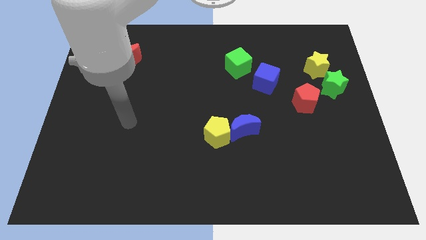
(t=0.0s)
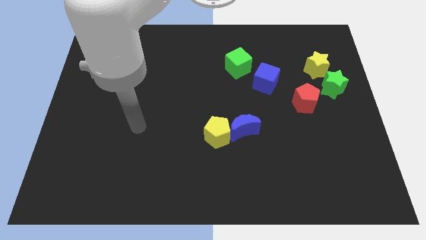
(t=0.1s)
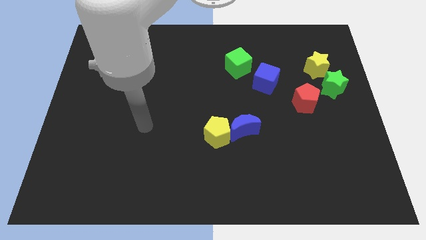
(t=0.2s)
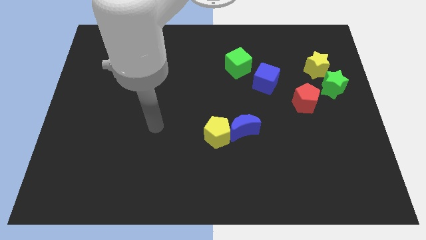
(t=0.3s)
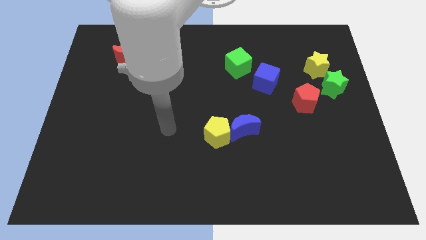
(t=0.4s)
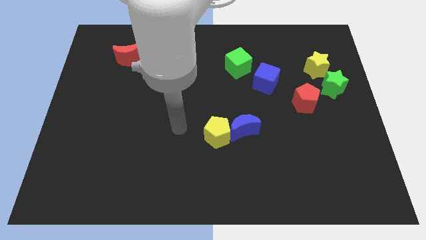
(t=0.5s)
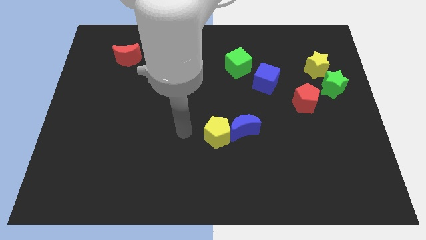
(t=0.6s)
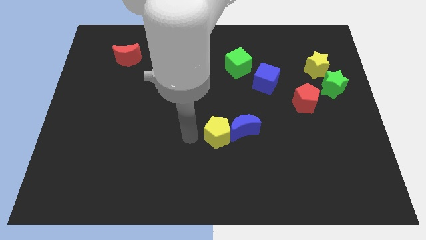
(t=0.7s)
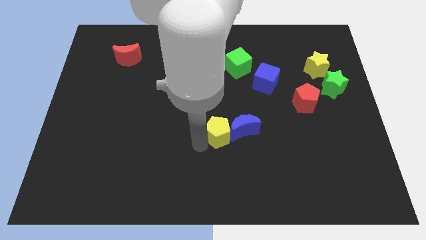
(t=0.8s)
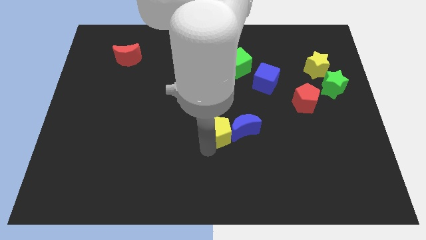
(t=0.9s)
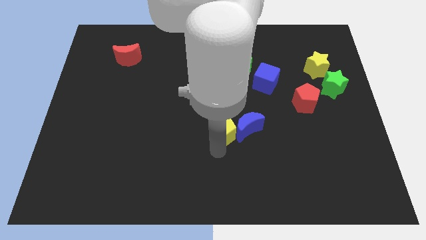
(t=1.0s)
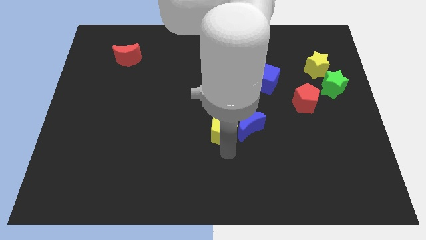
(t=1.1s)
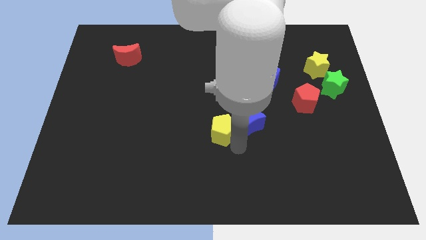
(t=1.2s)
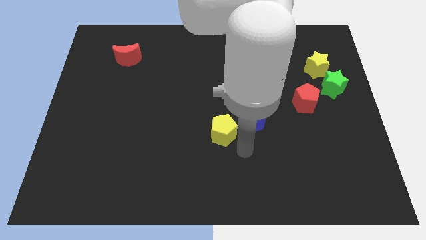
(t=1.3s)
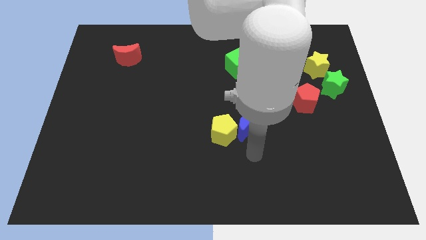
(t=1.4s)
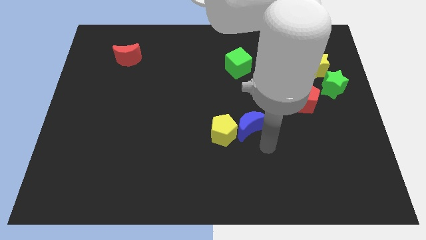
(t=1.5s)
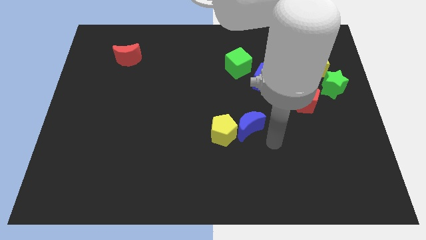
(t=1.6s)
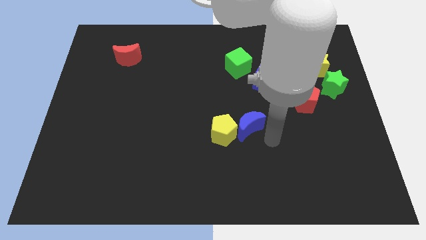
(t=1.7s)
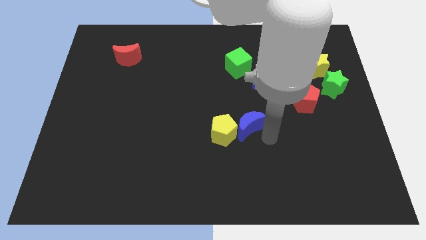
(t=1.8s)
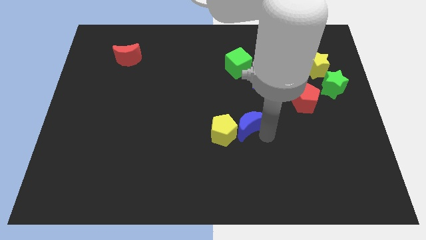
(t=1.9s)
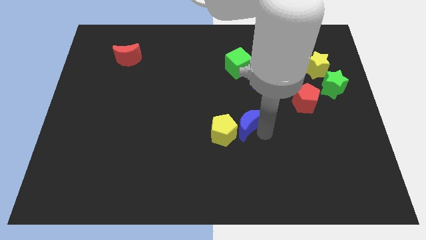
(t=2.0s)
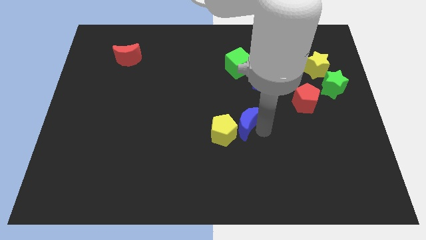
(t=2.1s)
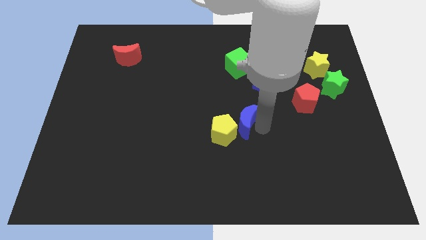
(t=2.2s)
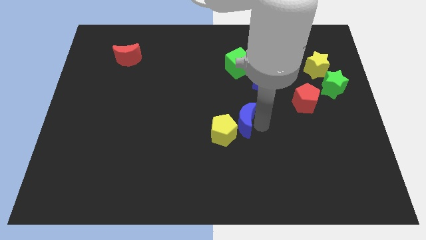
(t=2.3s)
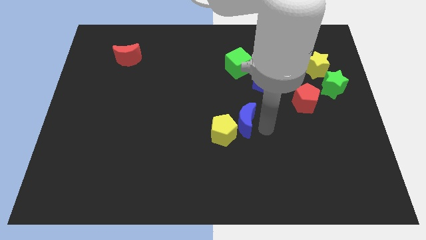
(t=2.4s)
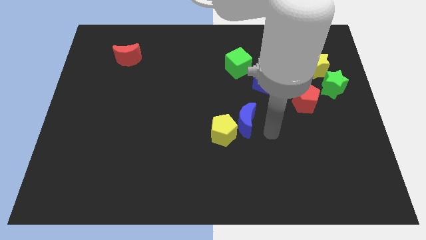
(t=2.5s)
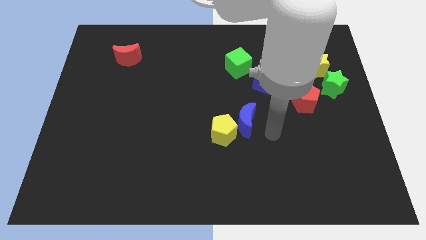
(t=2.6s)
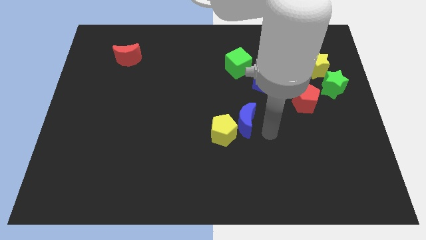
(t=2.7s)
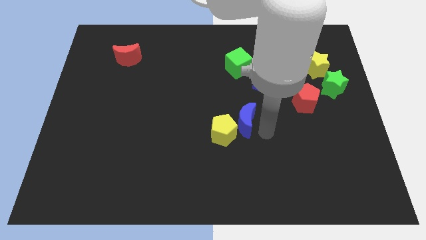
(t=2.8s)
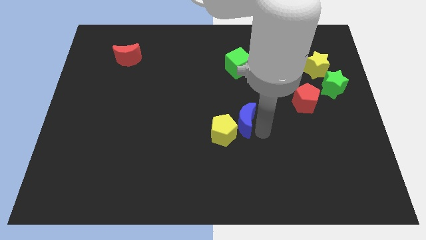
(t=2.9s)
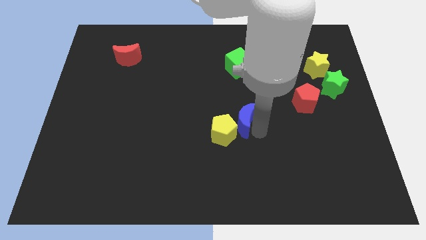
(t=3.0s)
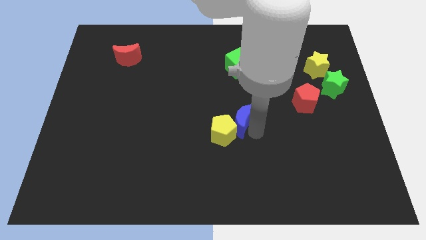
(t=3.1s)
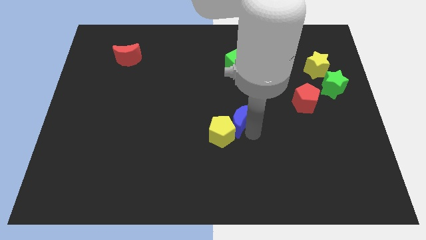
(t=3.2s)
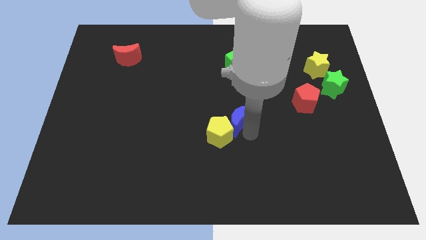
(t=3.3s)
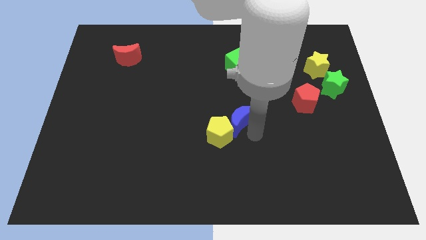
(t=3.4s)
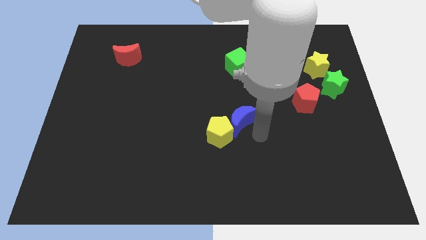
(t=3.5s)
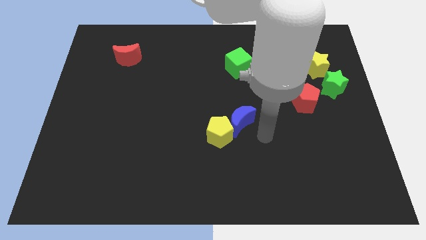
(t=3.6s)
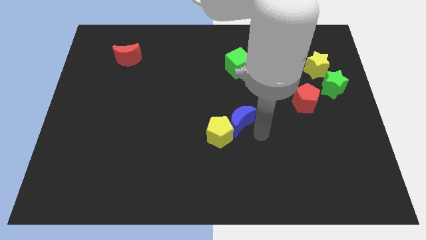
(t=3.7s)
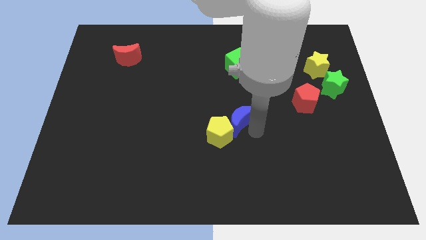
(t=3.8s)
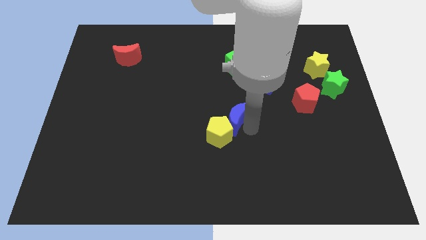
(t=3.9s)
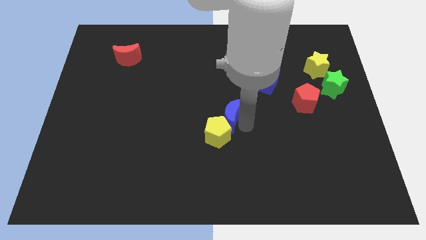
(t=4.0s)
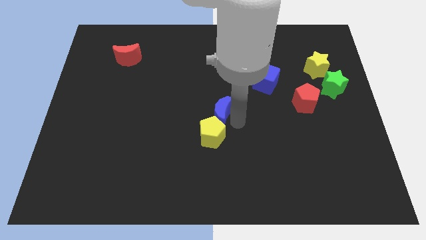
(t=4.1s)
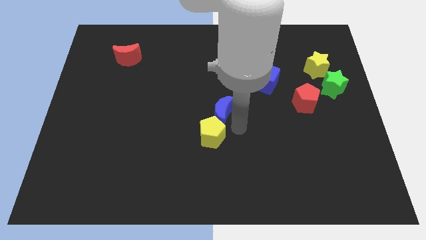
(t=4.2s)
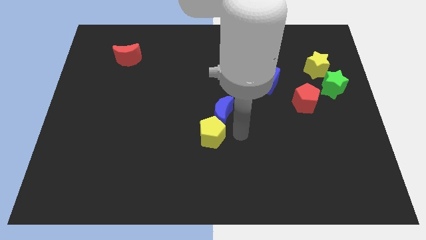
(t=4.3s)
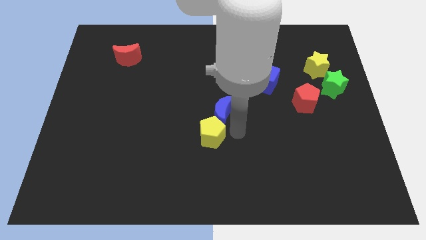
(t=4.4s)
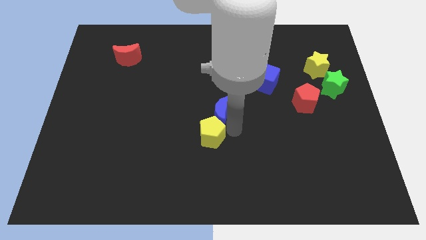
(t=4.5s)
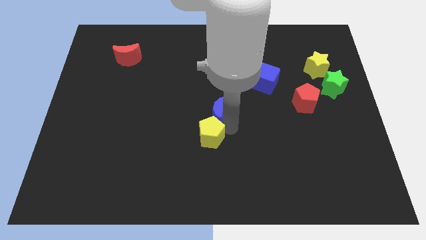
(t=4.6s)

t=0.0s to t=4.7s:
slightly move the blue moon upwards and to the left

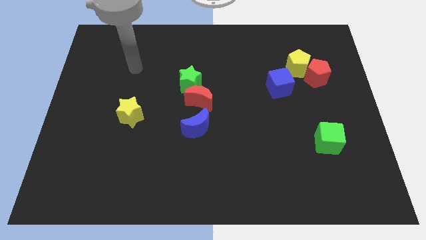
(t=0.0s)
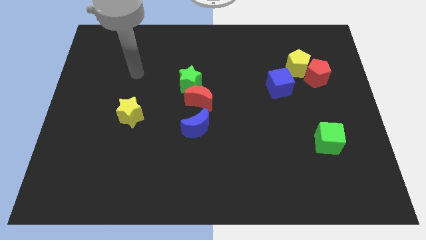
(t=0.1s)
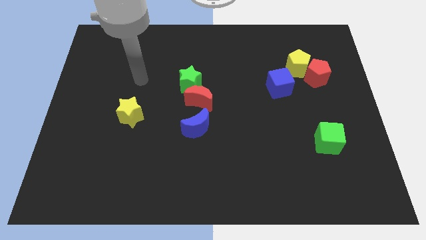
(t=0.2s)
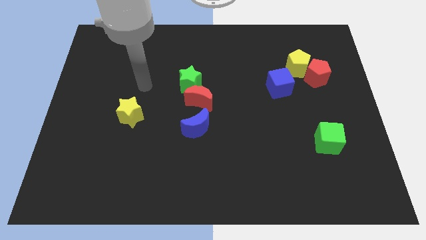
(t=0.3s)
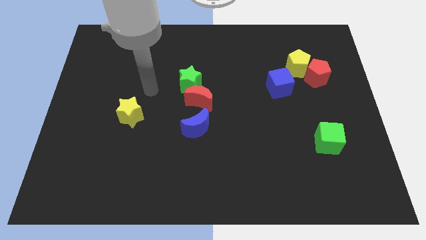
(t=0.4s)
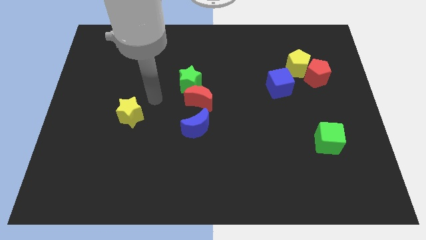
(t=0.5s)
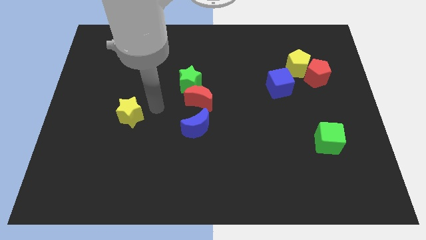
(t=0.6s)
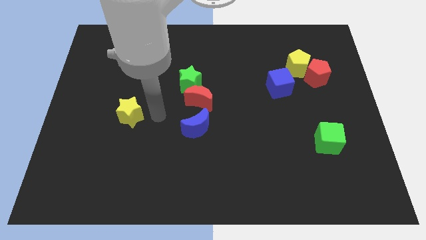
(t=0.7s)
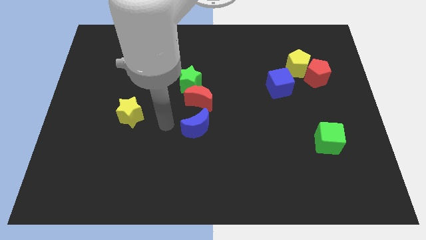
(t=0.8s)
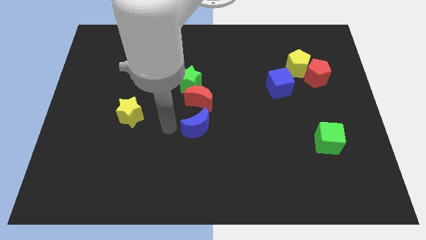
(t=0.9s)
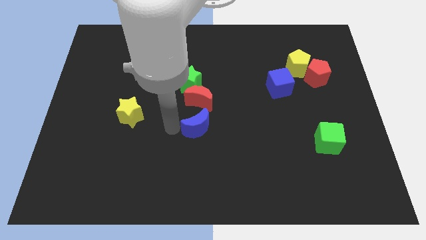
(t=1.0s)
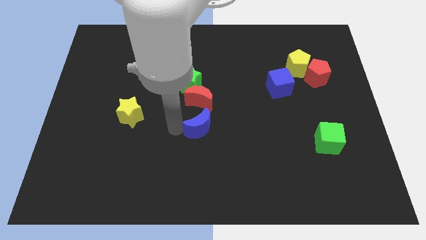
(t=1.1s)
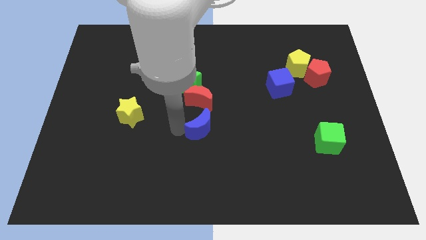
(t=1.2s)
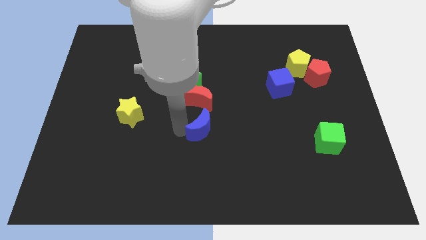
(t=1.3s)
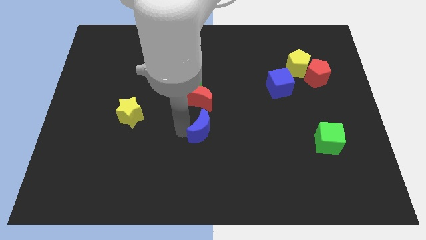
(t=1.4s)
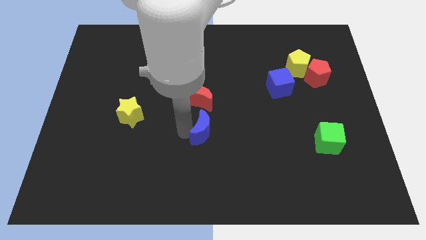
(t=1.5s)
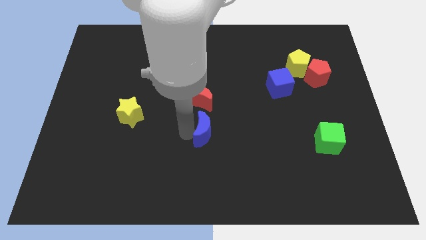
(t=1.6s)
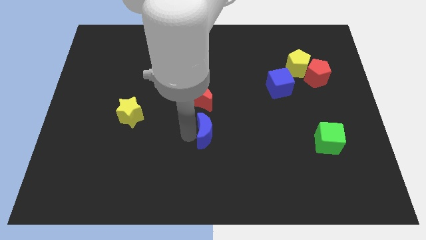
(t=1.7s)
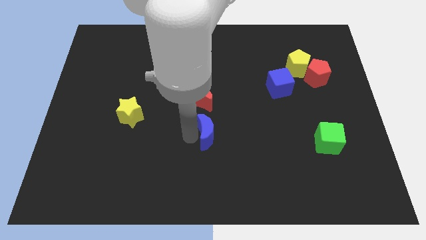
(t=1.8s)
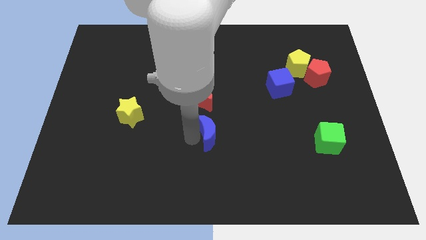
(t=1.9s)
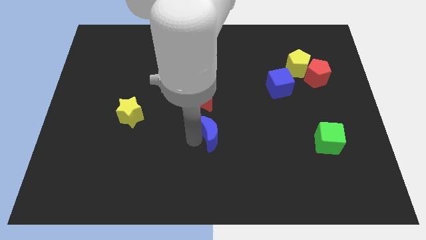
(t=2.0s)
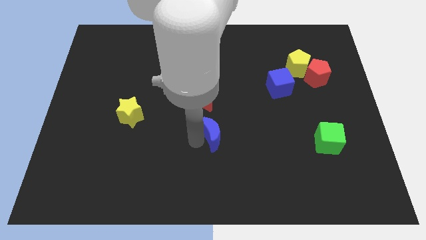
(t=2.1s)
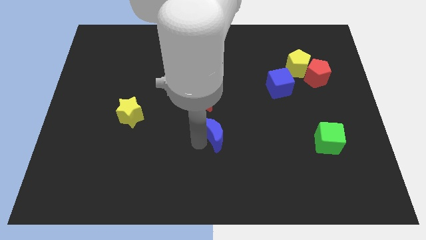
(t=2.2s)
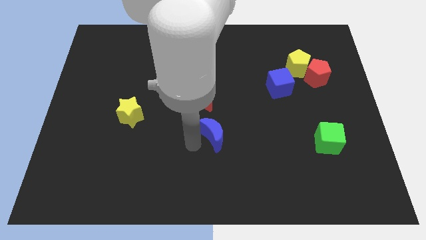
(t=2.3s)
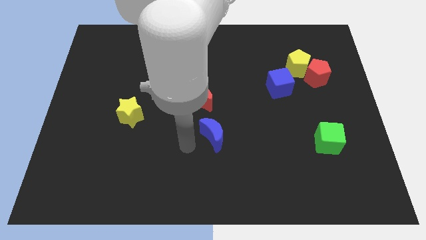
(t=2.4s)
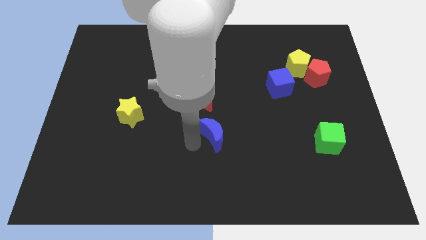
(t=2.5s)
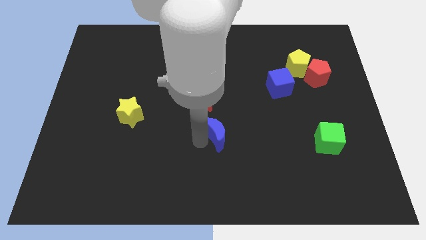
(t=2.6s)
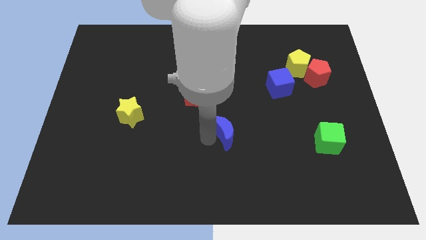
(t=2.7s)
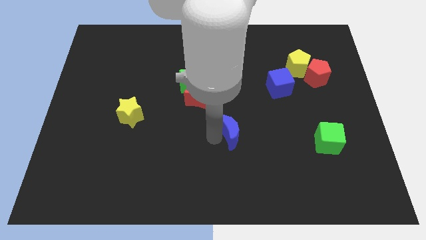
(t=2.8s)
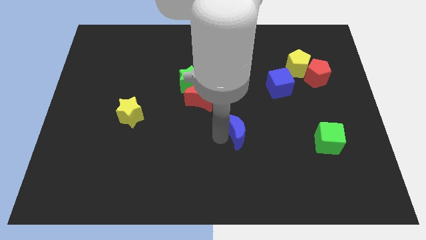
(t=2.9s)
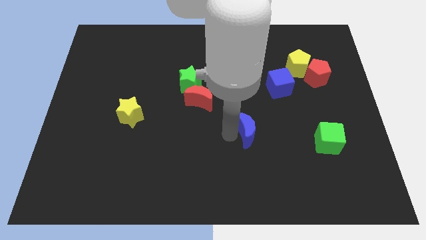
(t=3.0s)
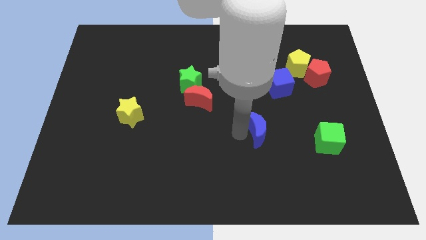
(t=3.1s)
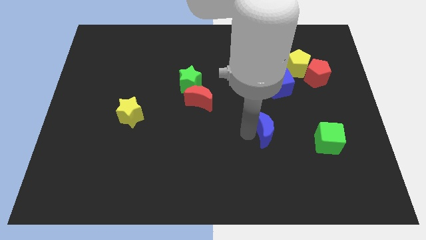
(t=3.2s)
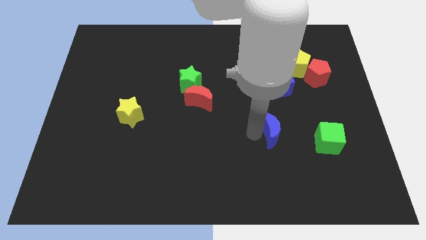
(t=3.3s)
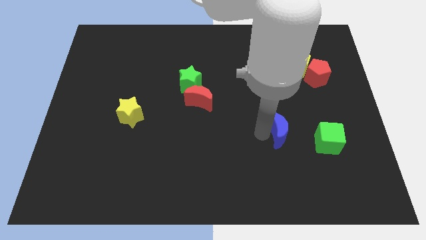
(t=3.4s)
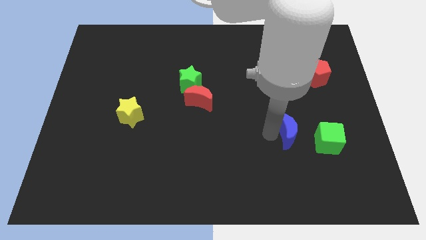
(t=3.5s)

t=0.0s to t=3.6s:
move the blue moon right
